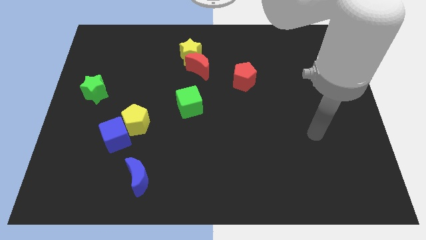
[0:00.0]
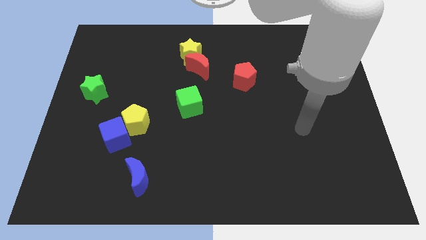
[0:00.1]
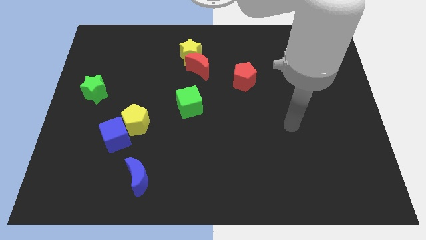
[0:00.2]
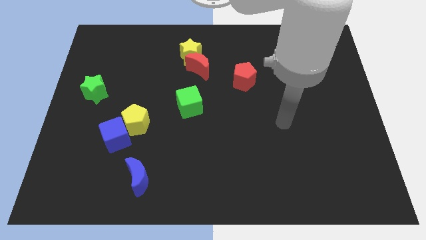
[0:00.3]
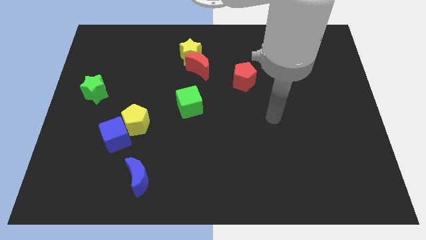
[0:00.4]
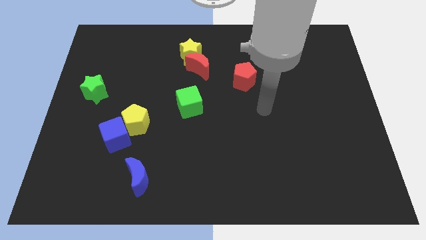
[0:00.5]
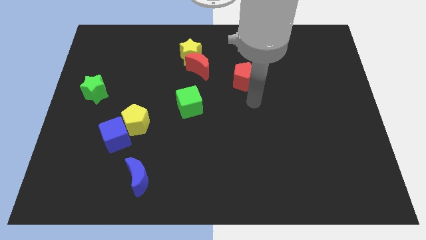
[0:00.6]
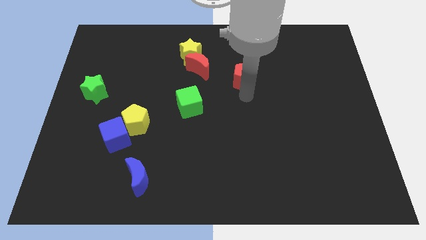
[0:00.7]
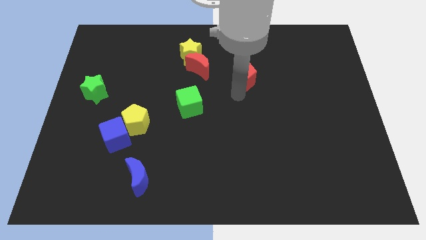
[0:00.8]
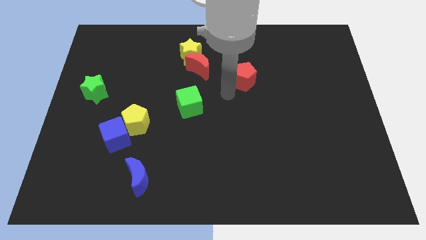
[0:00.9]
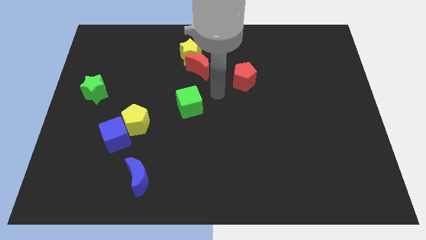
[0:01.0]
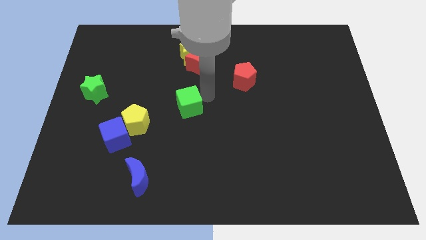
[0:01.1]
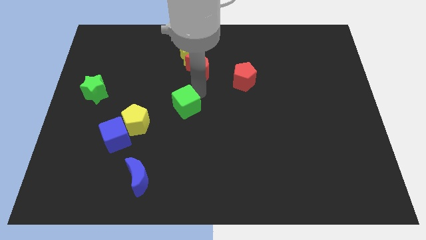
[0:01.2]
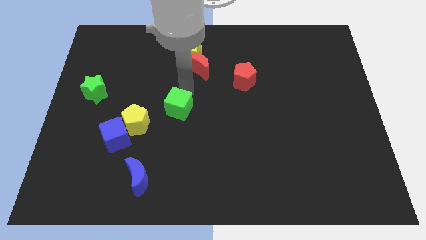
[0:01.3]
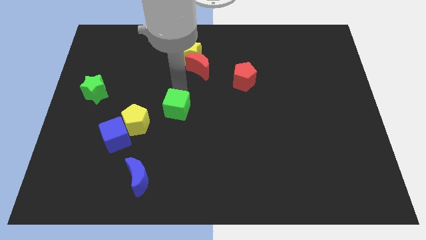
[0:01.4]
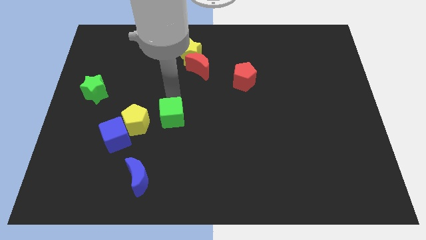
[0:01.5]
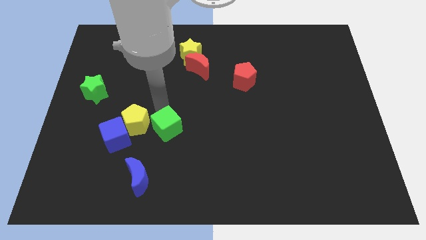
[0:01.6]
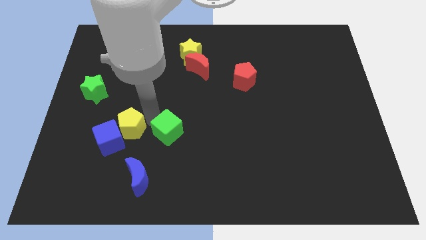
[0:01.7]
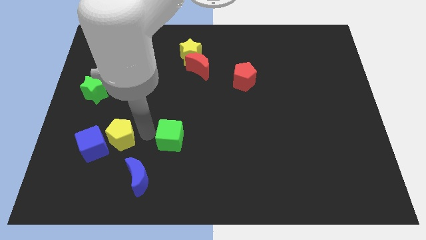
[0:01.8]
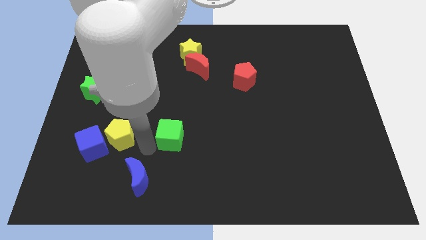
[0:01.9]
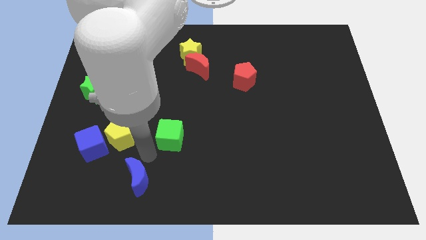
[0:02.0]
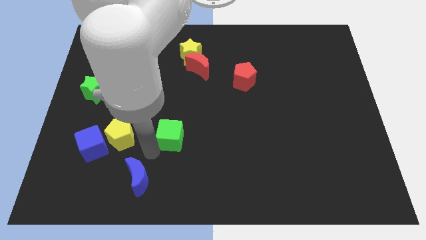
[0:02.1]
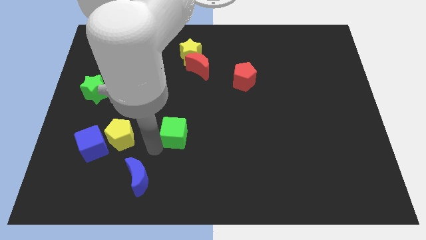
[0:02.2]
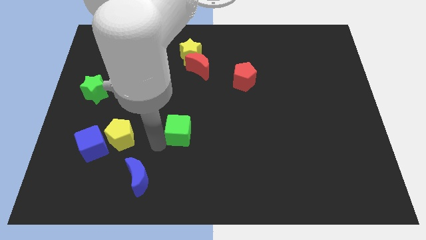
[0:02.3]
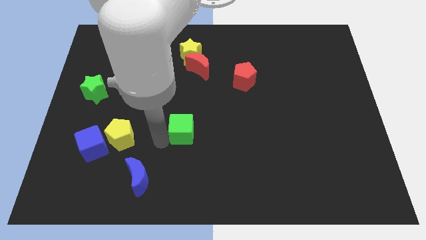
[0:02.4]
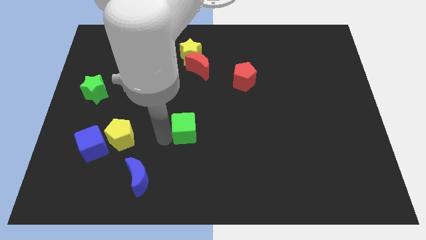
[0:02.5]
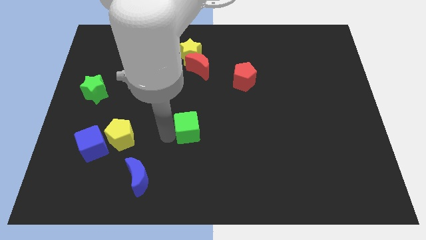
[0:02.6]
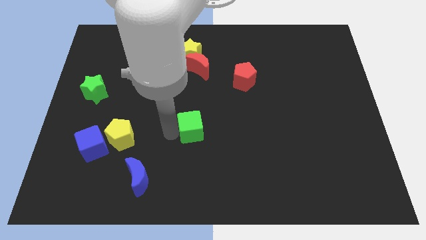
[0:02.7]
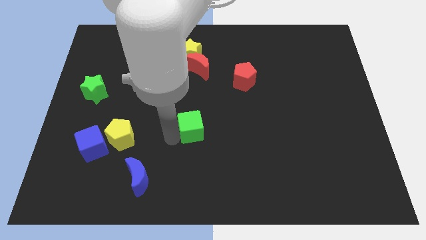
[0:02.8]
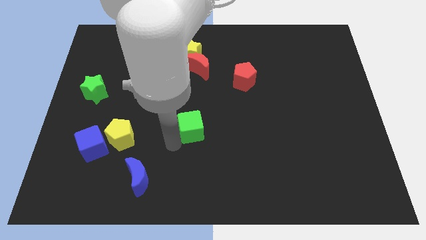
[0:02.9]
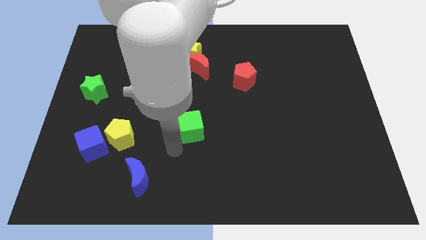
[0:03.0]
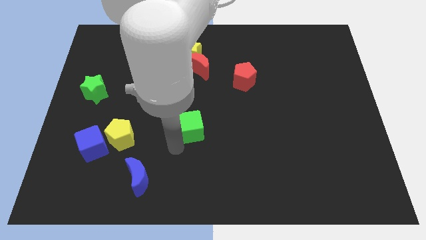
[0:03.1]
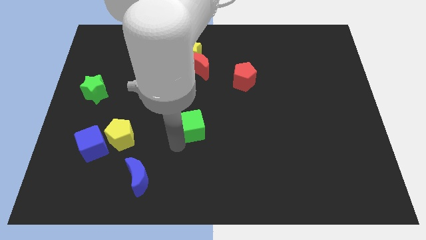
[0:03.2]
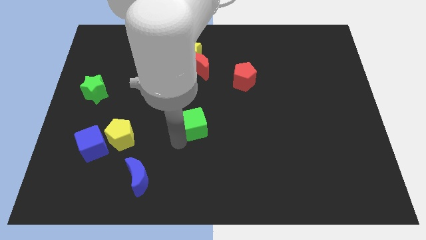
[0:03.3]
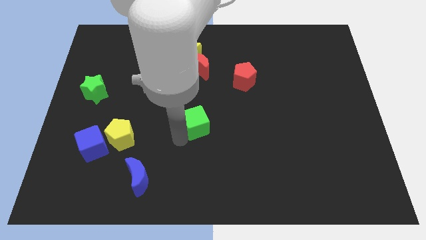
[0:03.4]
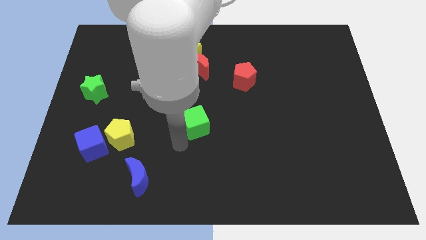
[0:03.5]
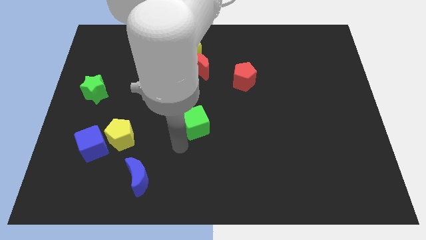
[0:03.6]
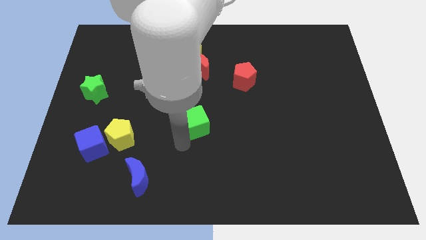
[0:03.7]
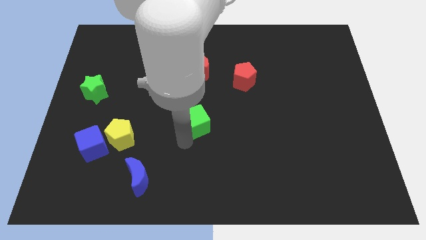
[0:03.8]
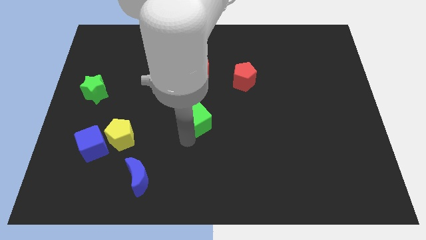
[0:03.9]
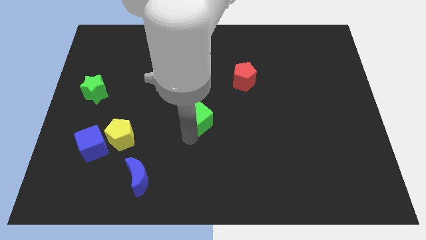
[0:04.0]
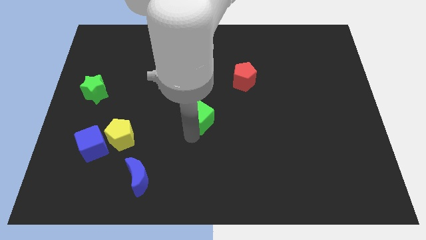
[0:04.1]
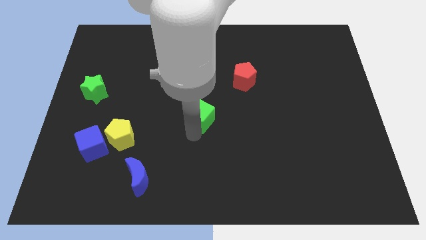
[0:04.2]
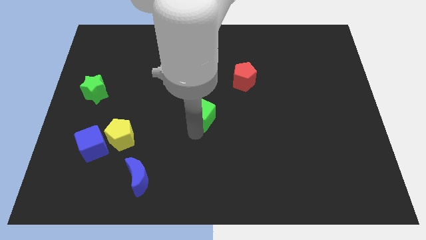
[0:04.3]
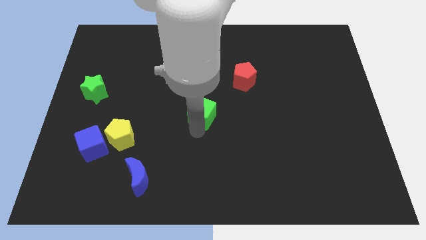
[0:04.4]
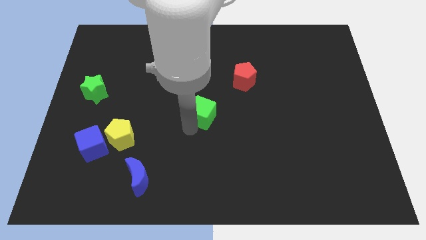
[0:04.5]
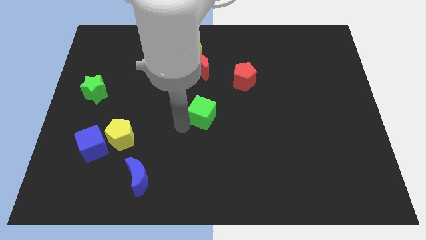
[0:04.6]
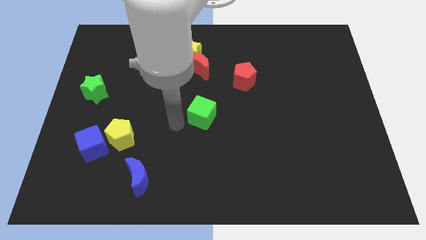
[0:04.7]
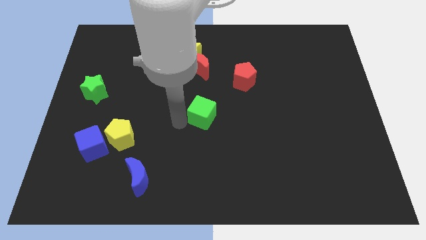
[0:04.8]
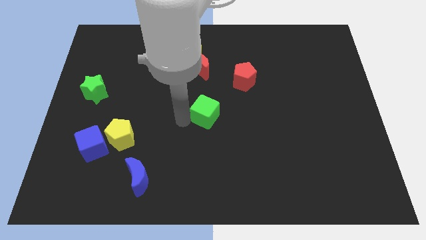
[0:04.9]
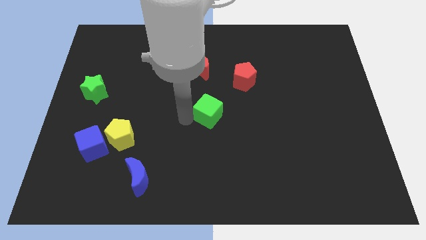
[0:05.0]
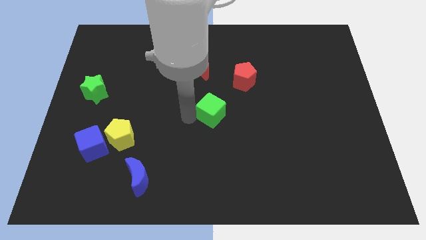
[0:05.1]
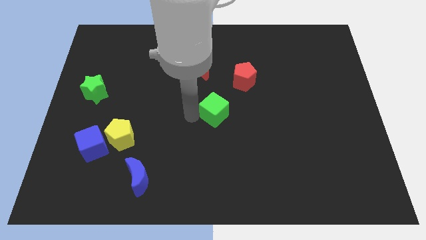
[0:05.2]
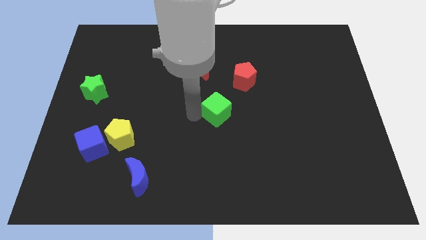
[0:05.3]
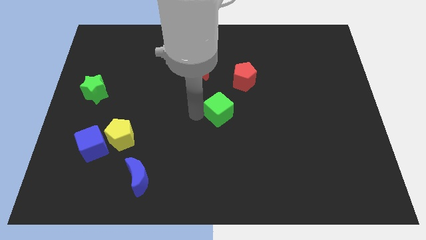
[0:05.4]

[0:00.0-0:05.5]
move the green cube right somewhat

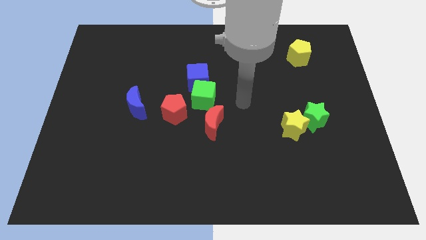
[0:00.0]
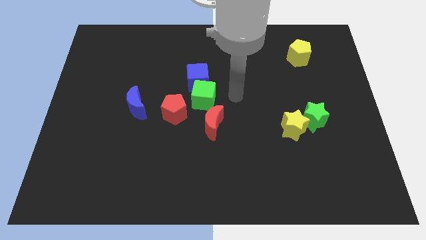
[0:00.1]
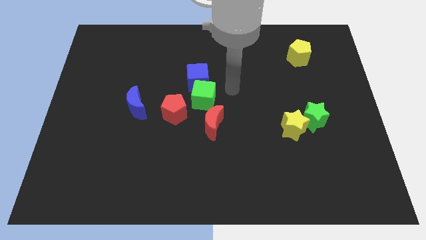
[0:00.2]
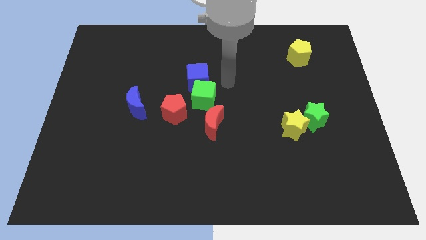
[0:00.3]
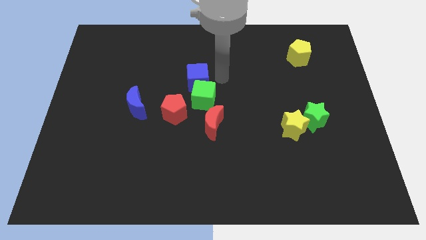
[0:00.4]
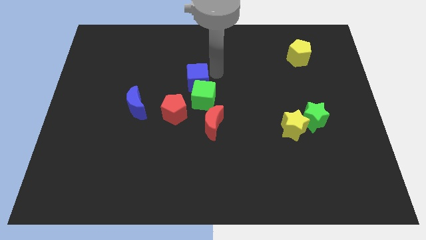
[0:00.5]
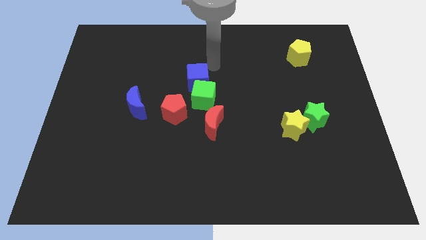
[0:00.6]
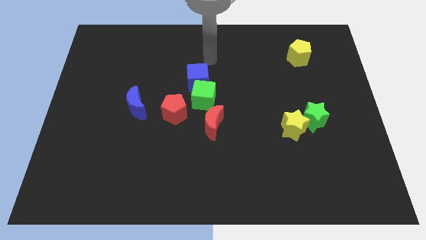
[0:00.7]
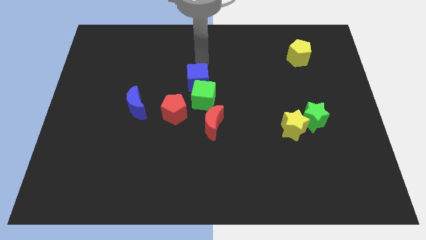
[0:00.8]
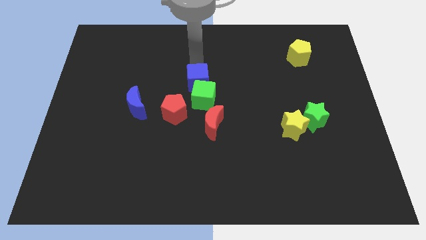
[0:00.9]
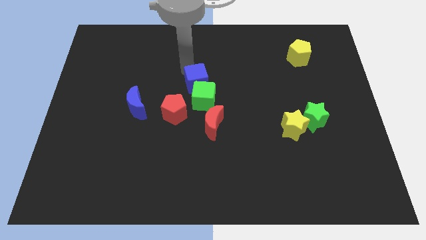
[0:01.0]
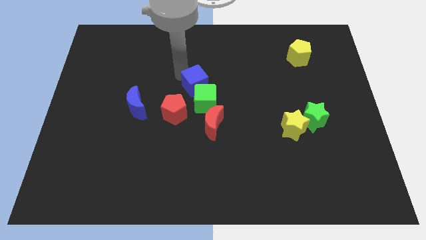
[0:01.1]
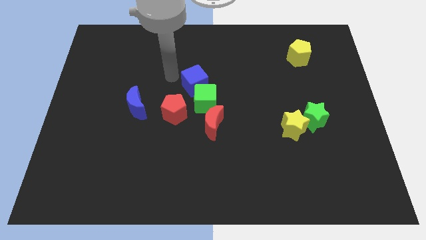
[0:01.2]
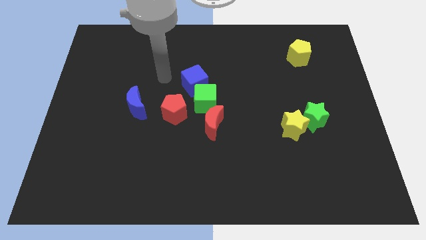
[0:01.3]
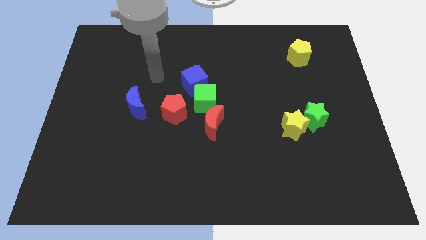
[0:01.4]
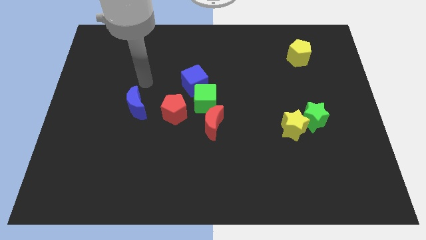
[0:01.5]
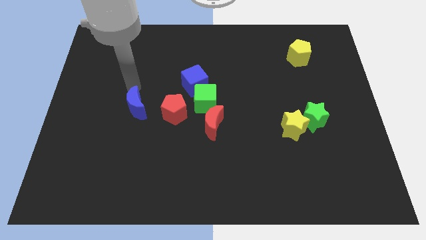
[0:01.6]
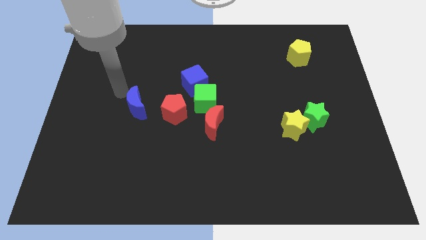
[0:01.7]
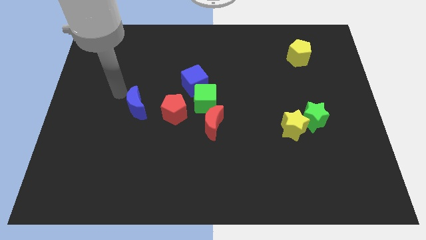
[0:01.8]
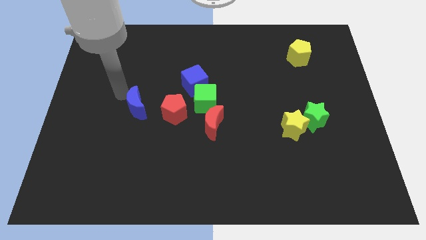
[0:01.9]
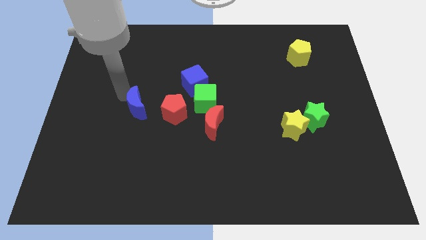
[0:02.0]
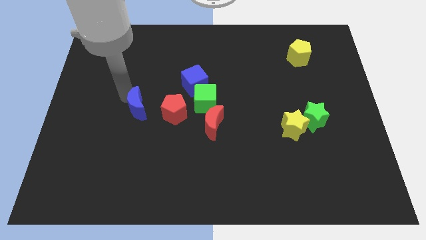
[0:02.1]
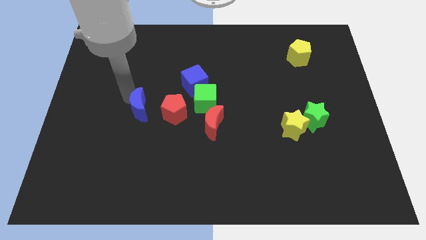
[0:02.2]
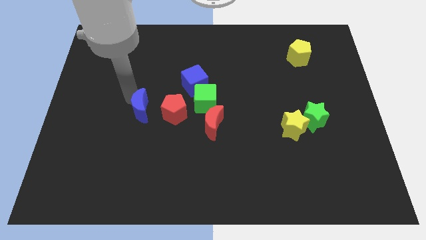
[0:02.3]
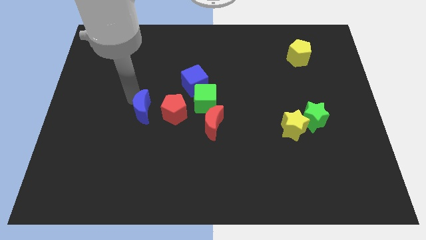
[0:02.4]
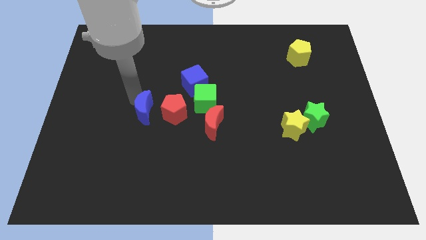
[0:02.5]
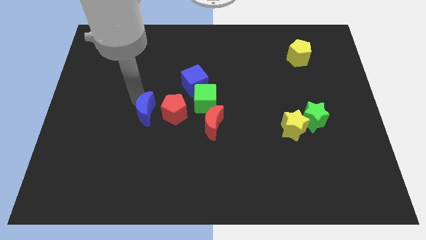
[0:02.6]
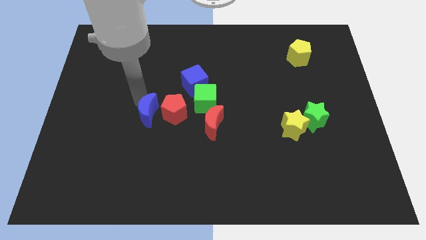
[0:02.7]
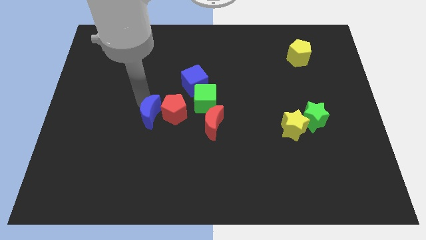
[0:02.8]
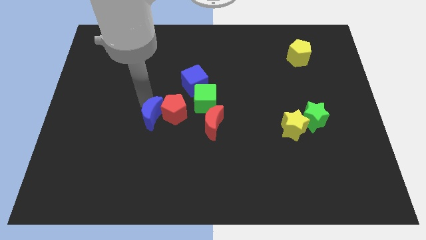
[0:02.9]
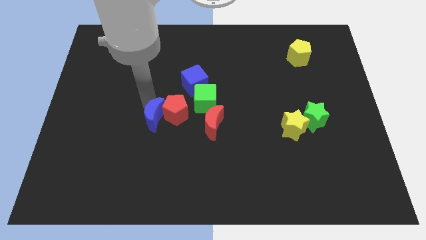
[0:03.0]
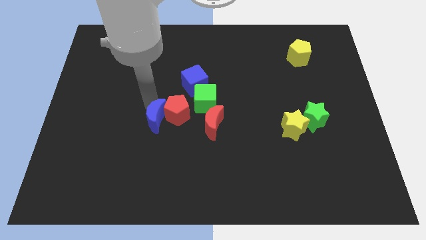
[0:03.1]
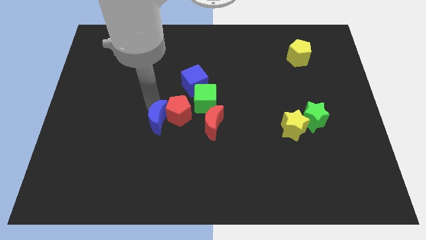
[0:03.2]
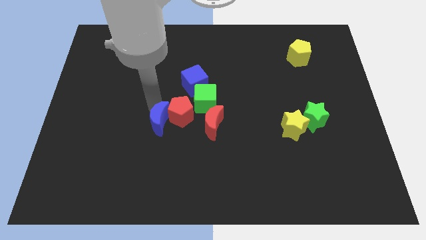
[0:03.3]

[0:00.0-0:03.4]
slide the blue moon down and then right slightly
